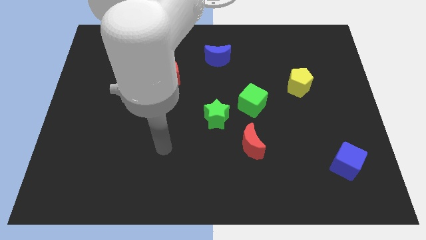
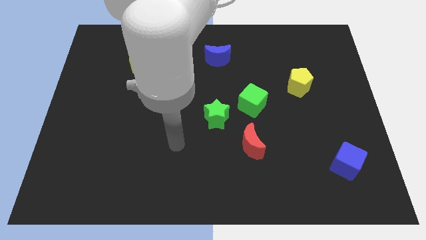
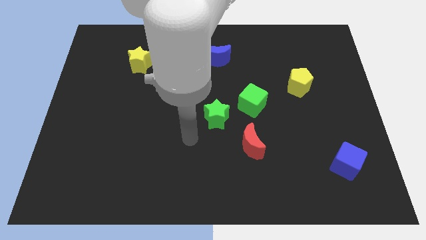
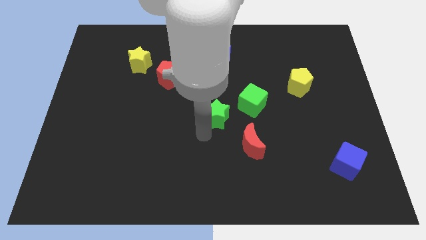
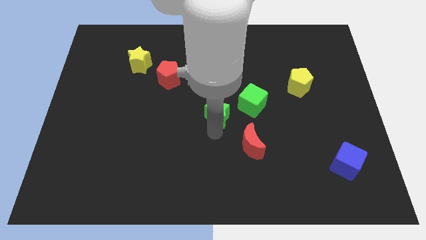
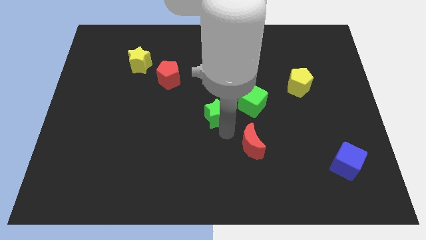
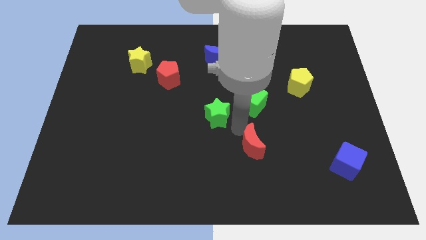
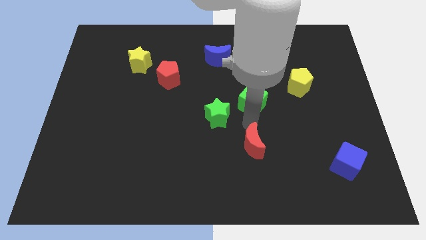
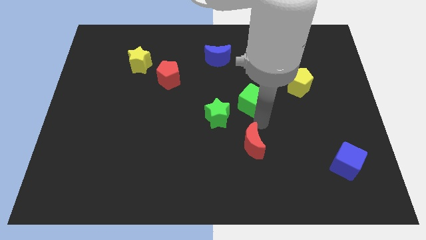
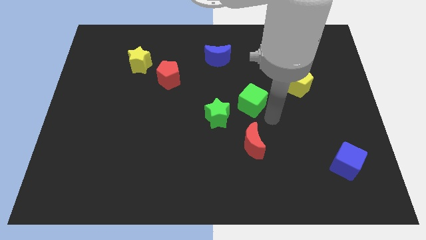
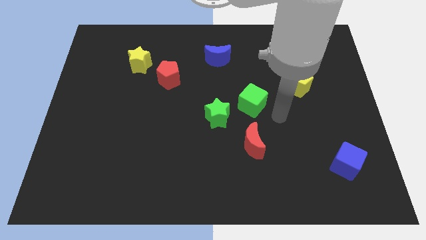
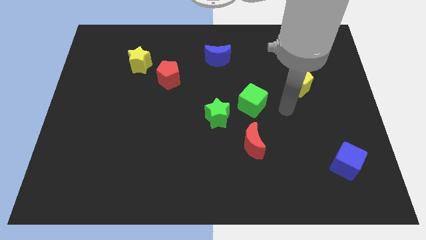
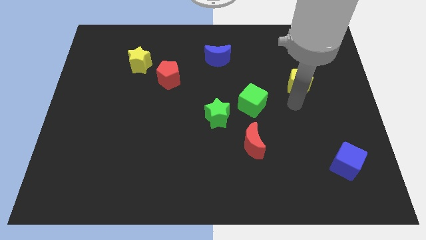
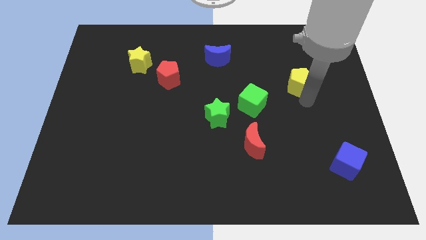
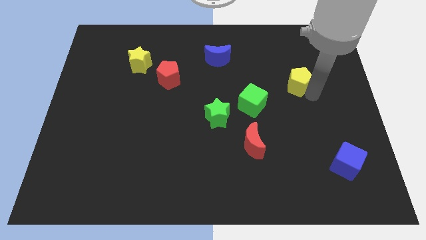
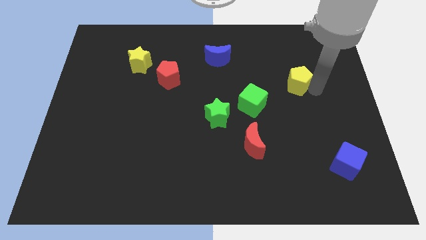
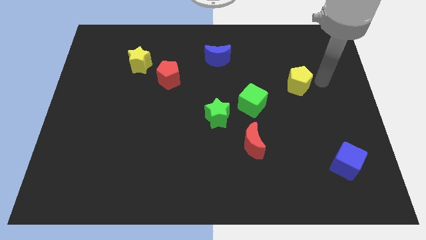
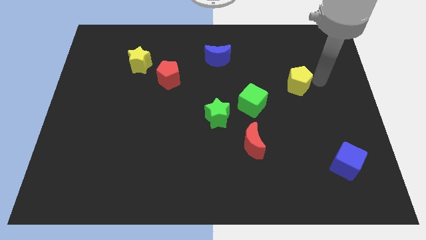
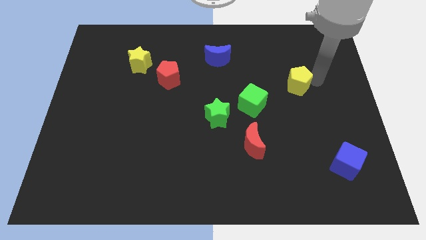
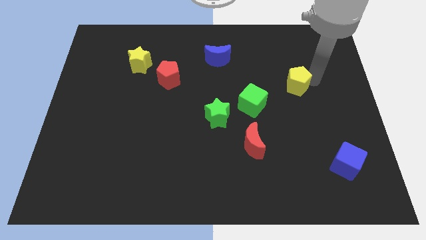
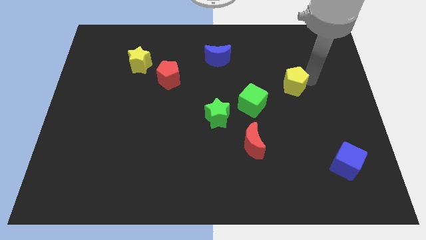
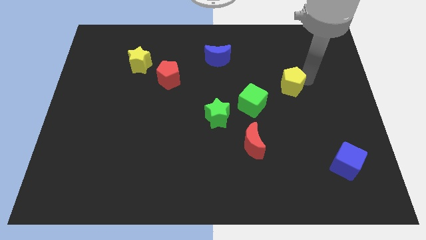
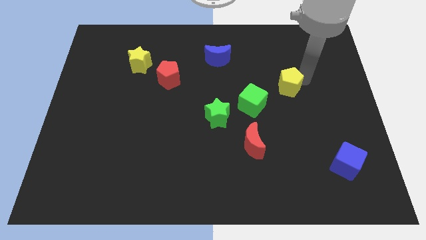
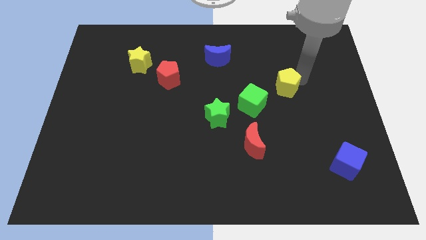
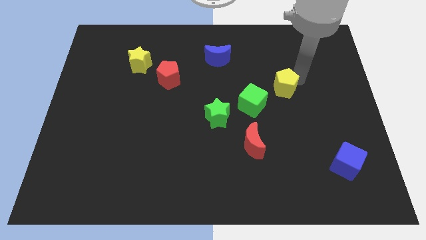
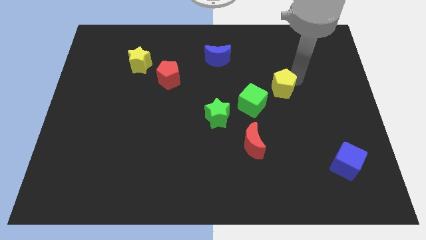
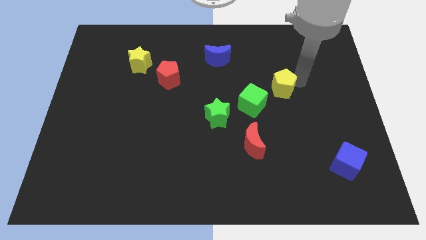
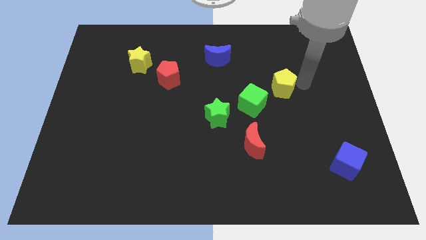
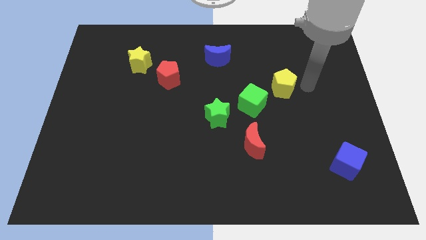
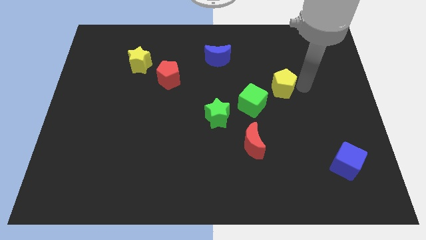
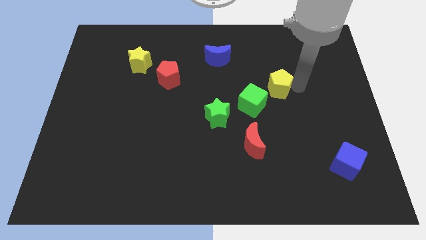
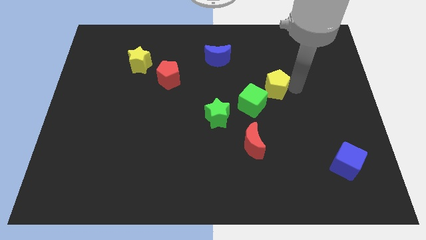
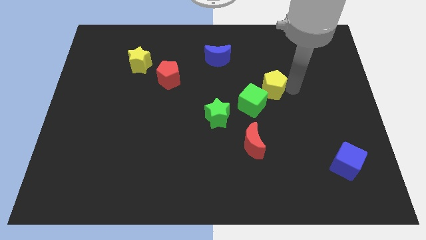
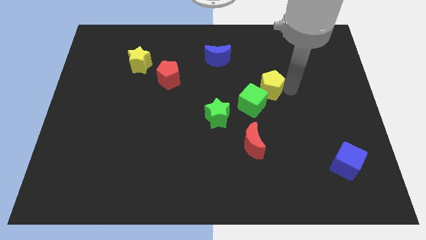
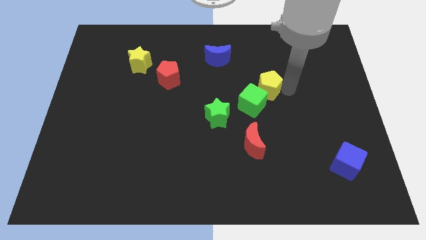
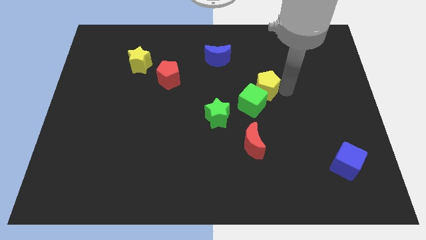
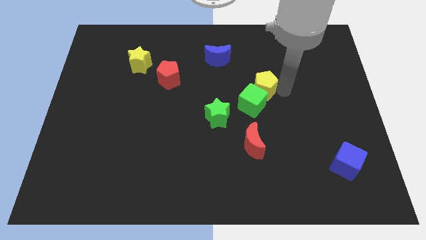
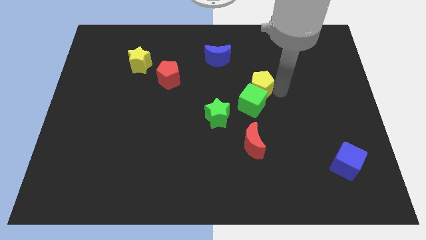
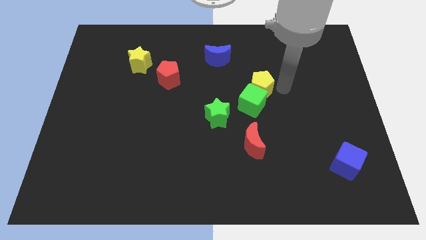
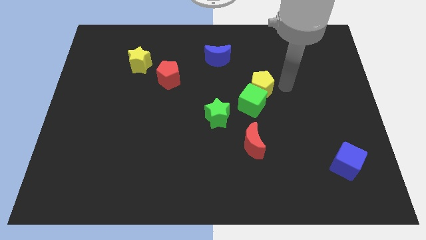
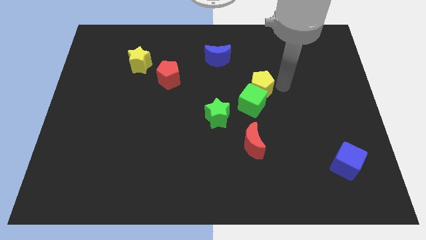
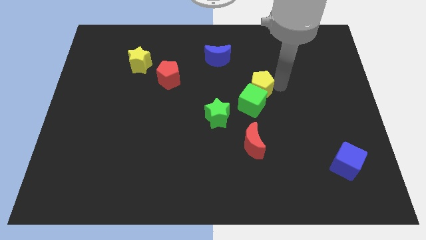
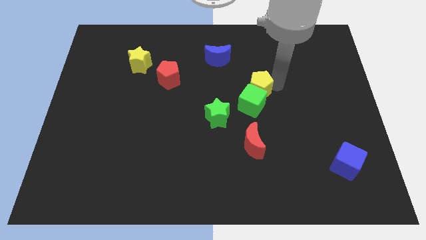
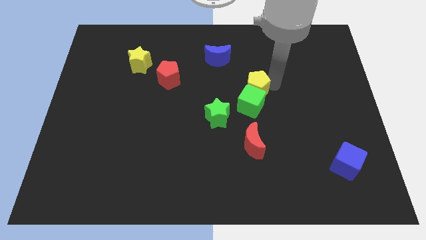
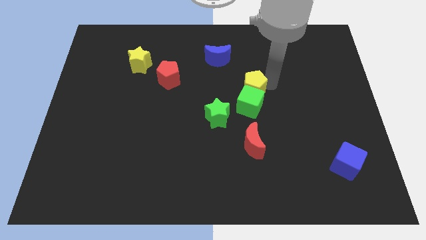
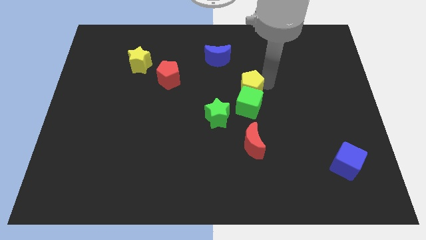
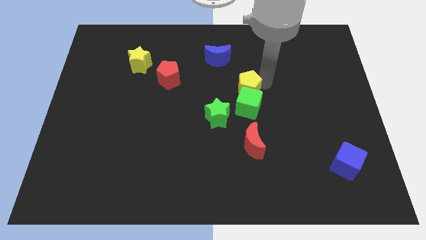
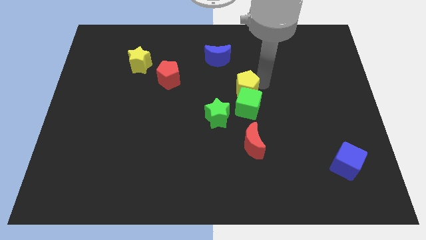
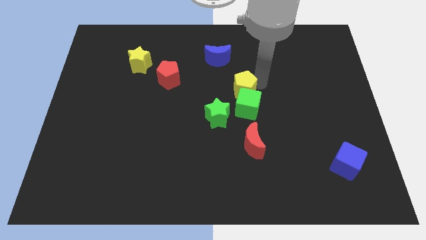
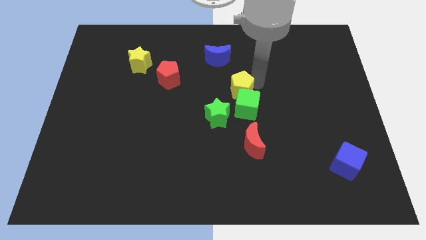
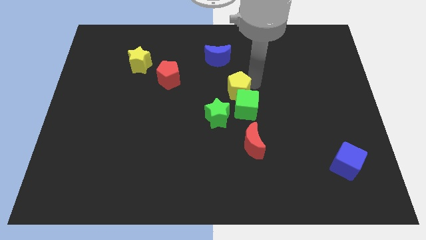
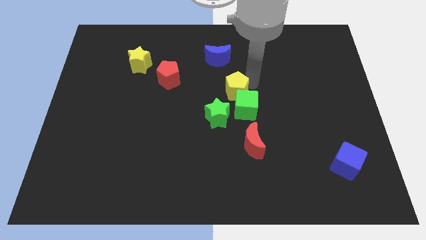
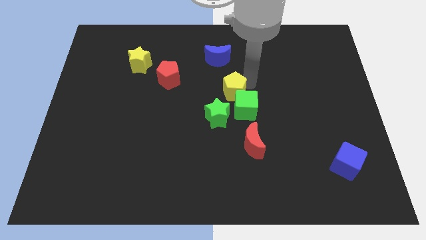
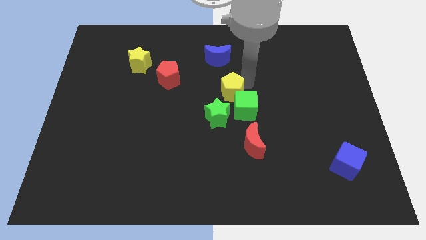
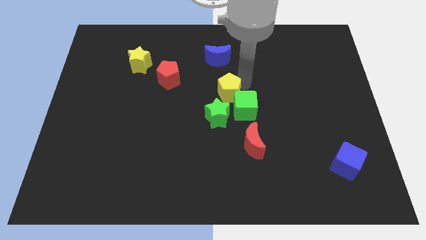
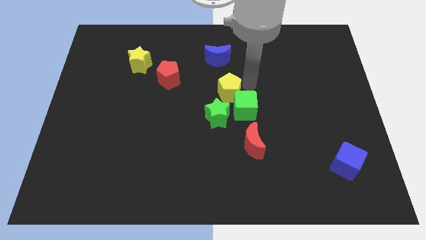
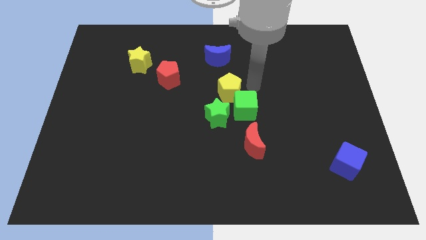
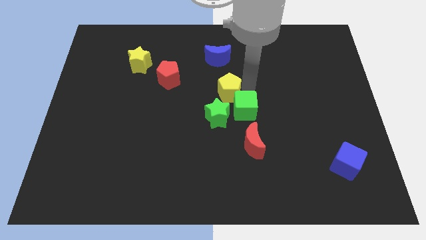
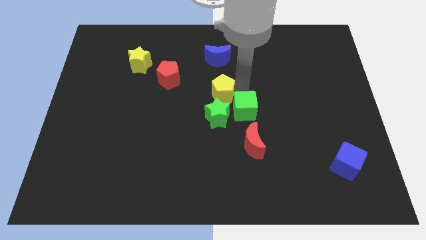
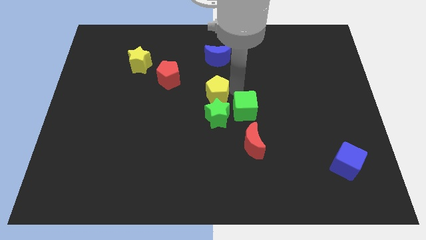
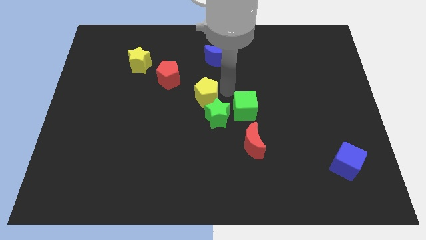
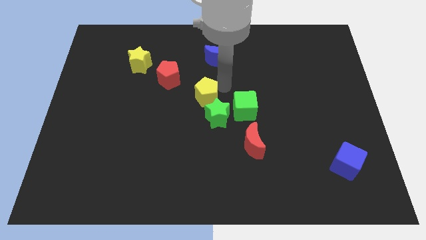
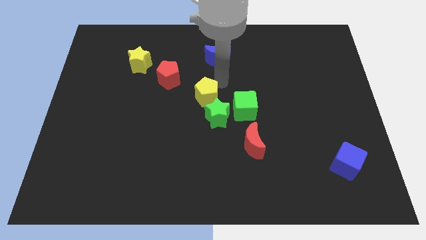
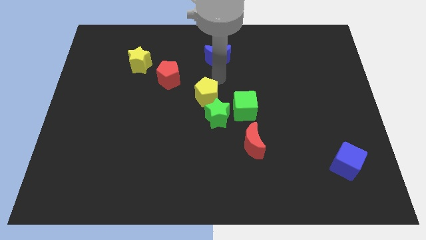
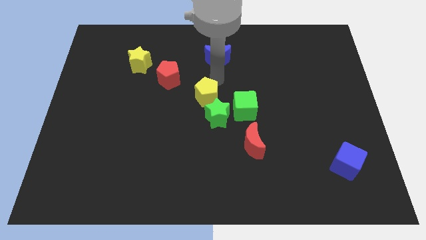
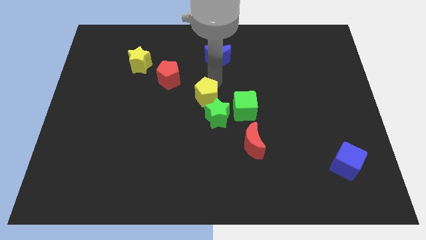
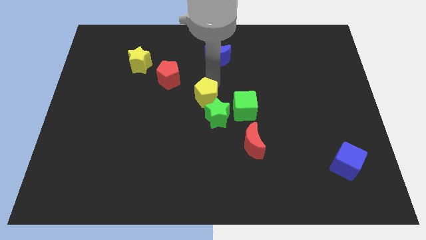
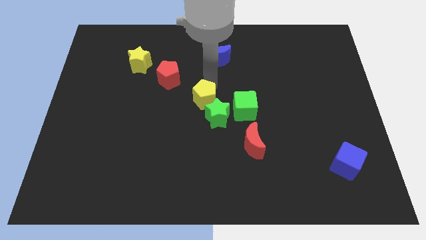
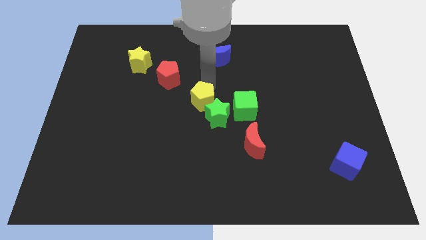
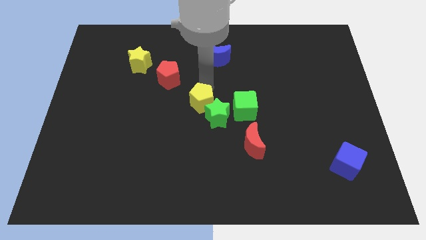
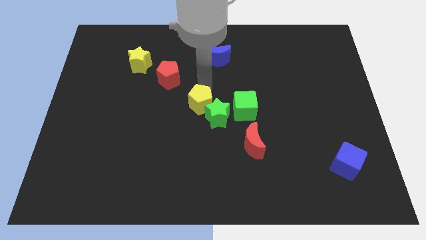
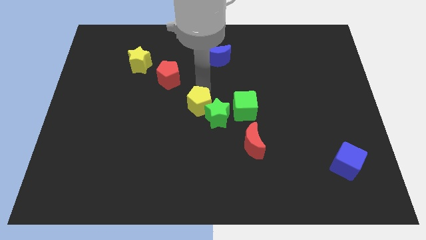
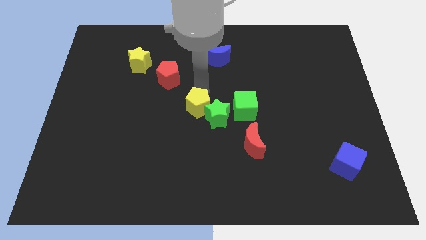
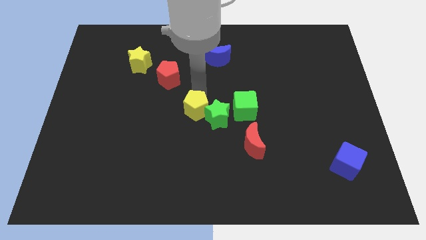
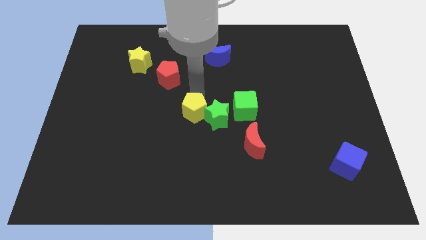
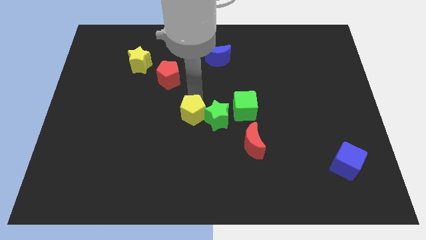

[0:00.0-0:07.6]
put the yellow pentagon to the bottom left side of the green star
